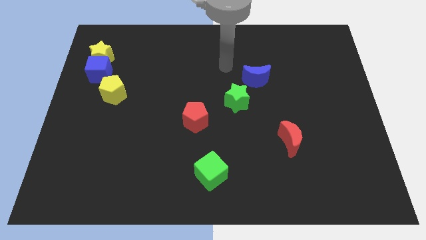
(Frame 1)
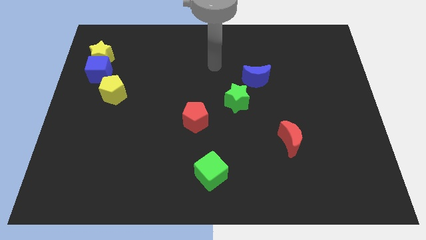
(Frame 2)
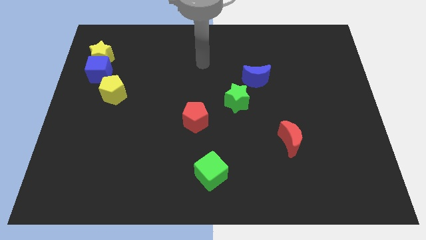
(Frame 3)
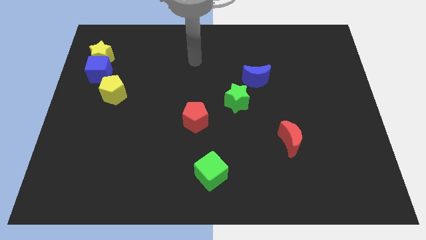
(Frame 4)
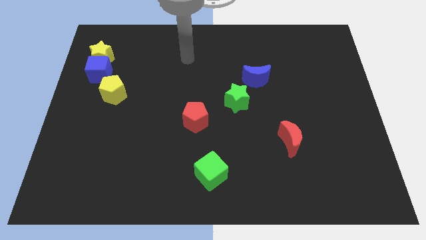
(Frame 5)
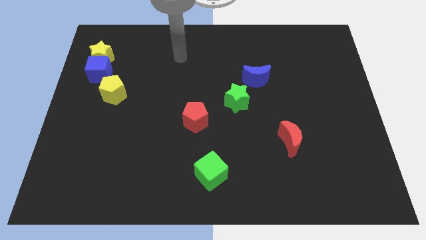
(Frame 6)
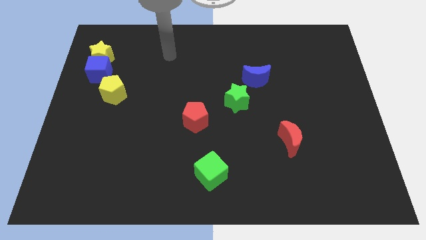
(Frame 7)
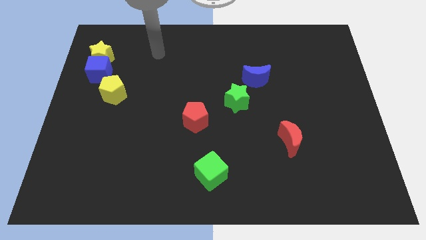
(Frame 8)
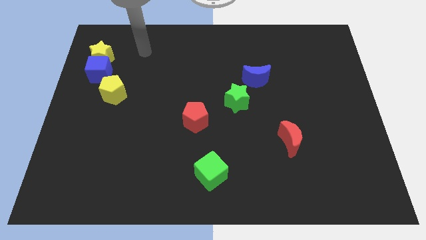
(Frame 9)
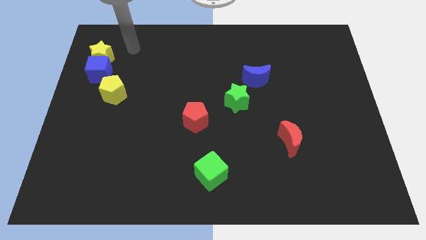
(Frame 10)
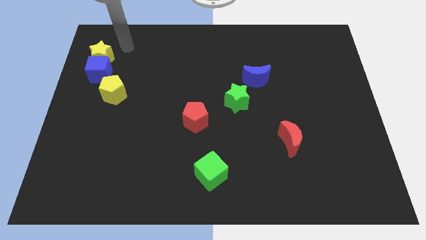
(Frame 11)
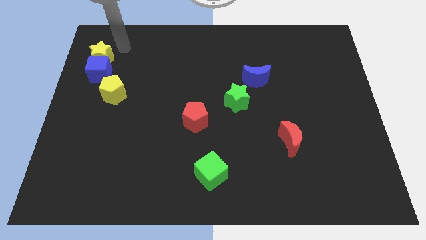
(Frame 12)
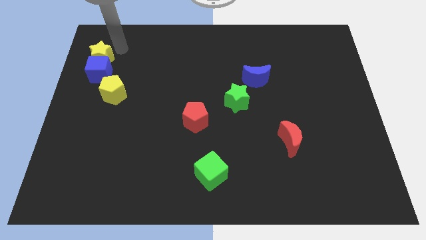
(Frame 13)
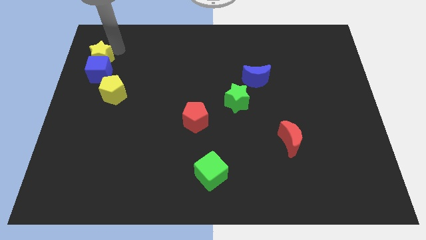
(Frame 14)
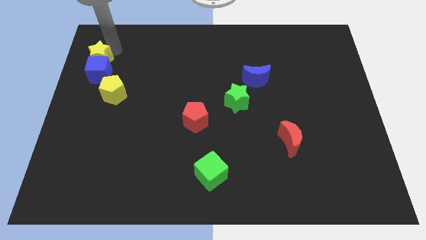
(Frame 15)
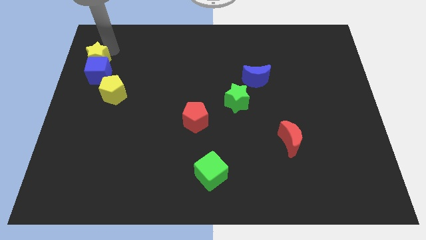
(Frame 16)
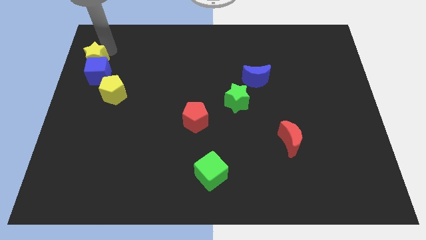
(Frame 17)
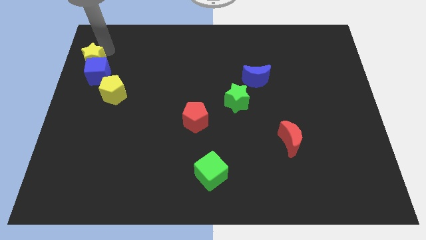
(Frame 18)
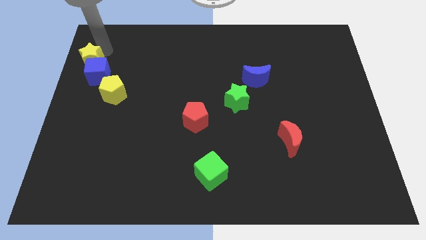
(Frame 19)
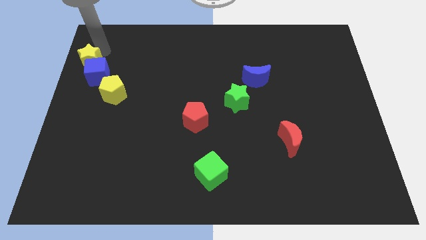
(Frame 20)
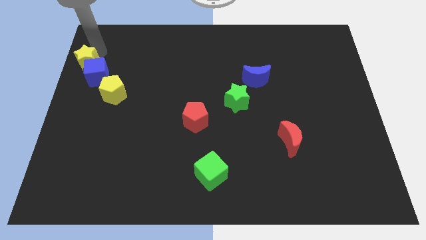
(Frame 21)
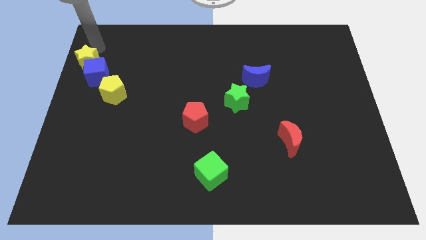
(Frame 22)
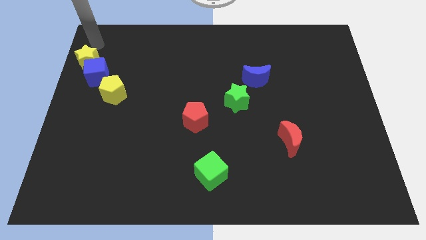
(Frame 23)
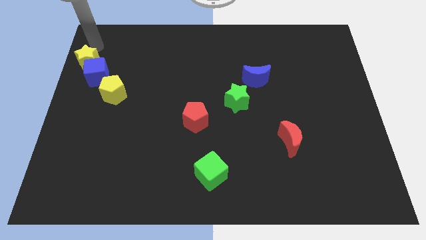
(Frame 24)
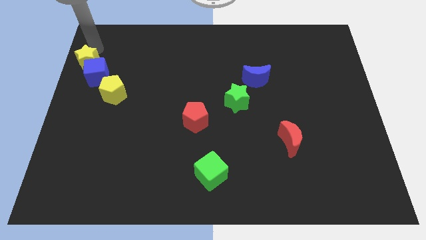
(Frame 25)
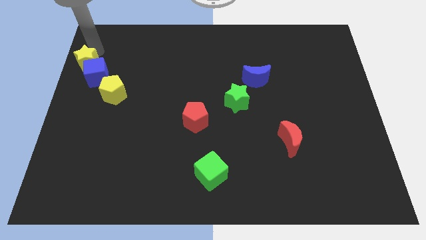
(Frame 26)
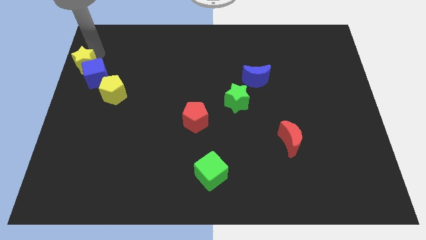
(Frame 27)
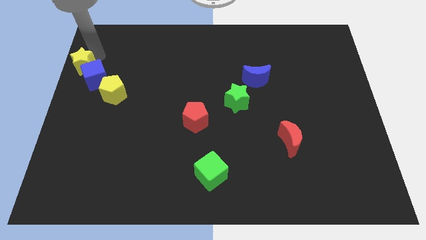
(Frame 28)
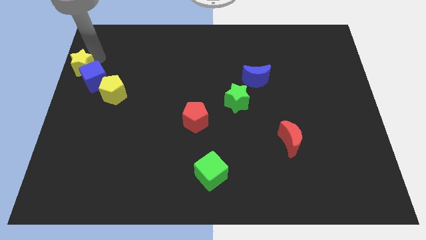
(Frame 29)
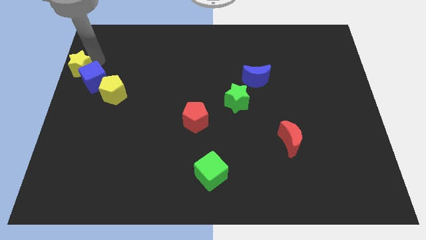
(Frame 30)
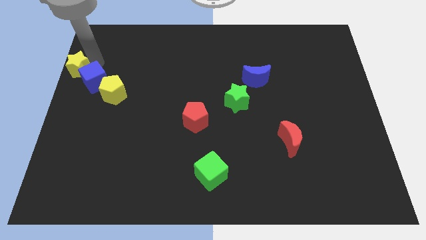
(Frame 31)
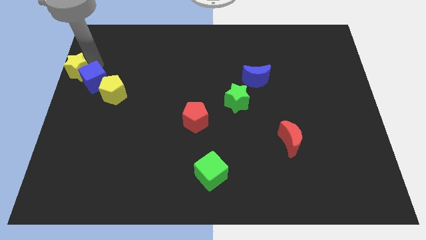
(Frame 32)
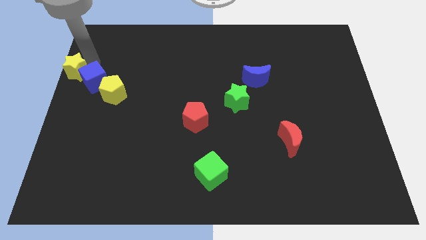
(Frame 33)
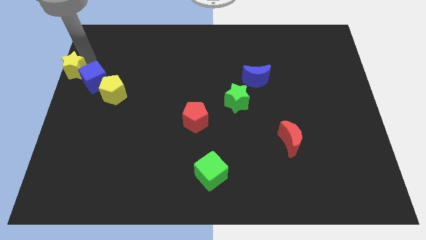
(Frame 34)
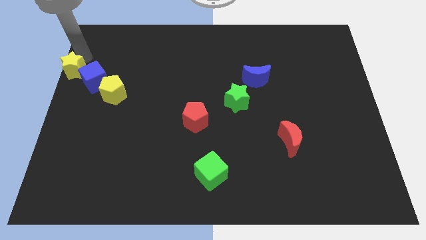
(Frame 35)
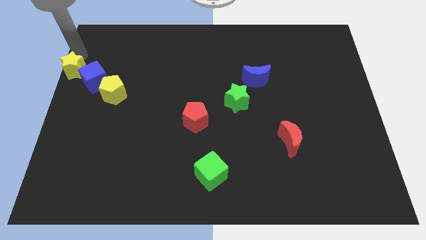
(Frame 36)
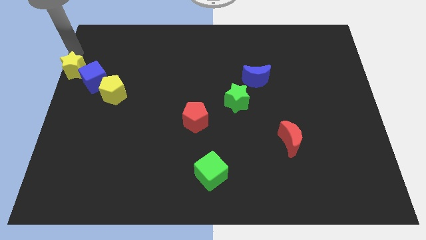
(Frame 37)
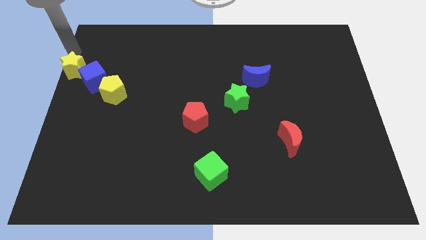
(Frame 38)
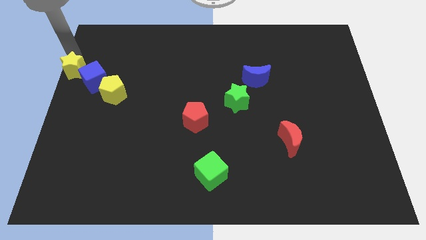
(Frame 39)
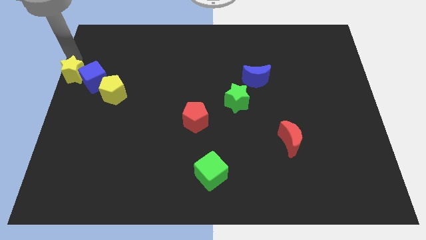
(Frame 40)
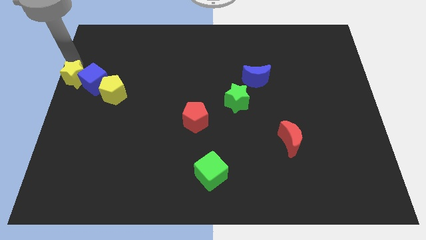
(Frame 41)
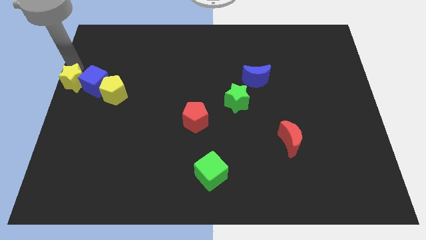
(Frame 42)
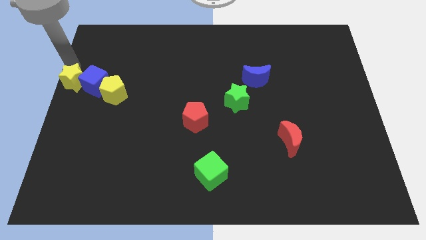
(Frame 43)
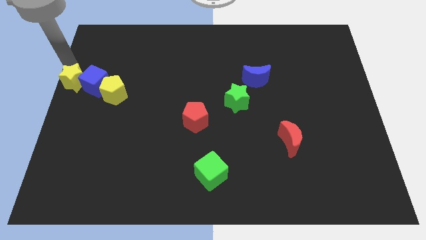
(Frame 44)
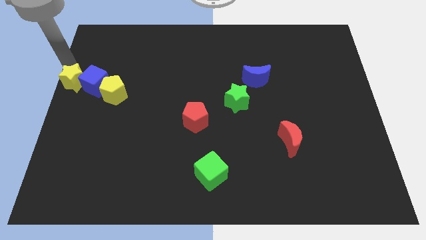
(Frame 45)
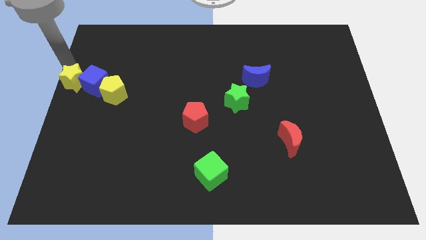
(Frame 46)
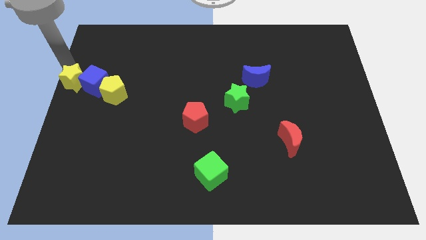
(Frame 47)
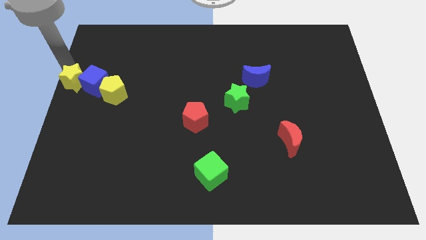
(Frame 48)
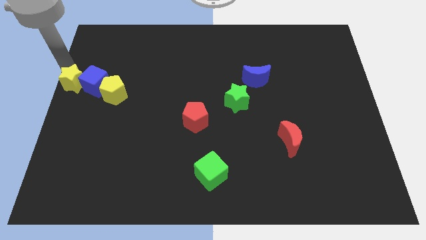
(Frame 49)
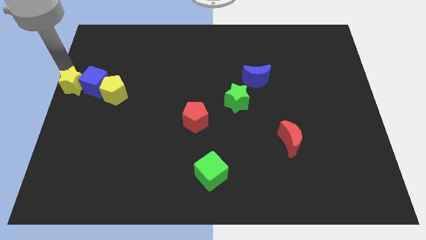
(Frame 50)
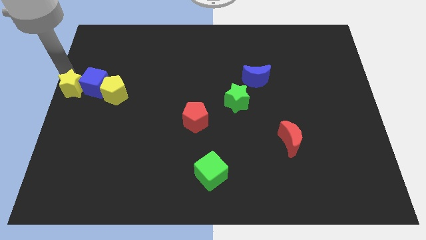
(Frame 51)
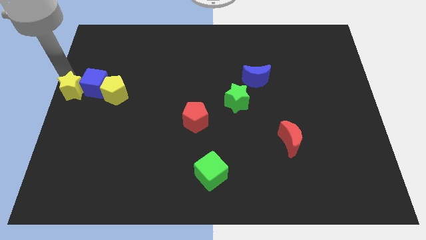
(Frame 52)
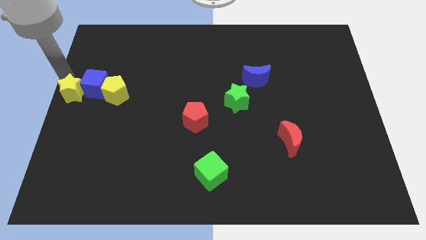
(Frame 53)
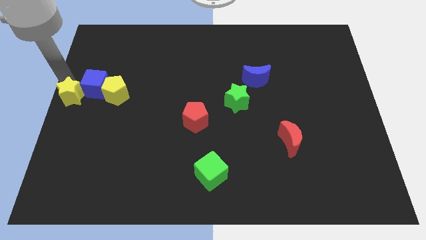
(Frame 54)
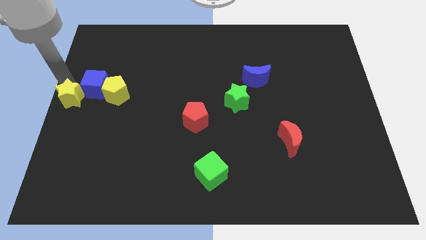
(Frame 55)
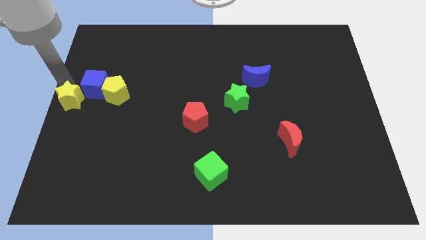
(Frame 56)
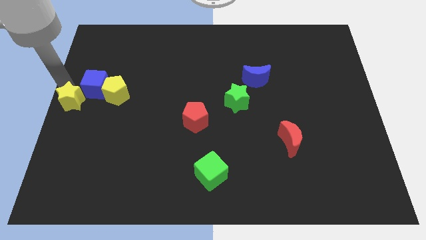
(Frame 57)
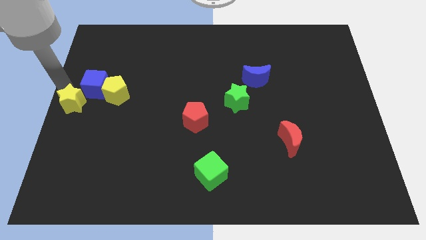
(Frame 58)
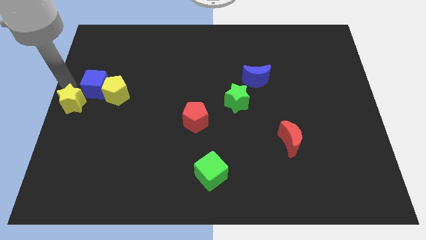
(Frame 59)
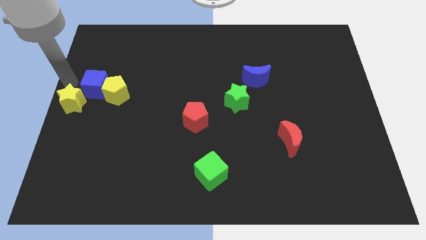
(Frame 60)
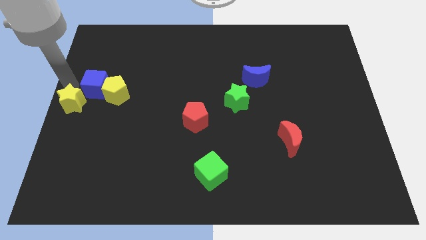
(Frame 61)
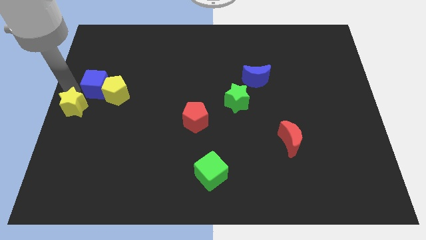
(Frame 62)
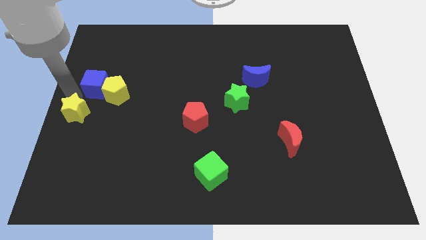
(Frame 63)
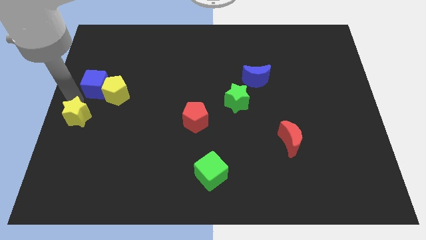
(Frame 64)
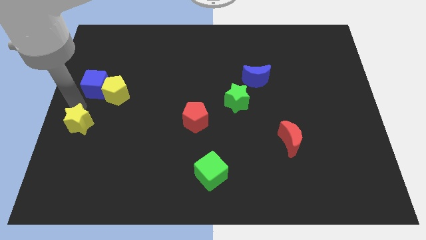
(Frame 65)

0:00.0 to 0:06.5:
push the yellow star downwards

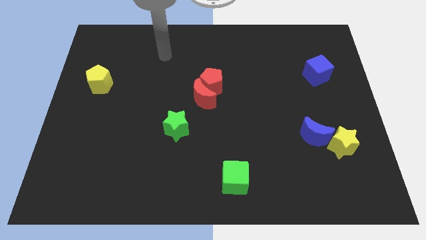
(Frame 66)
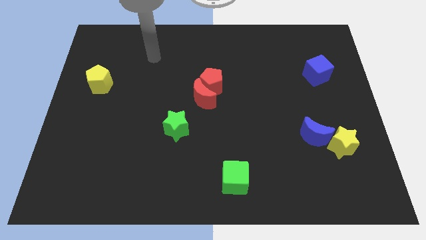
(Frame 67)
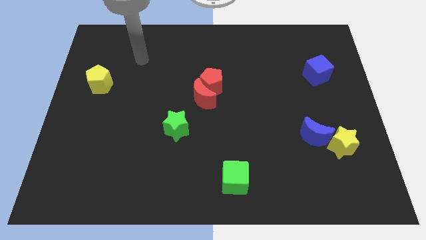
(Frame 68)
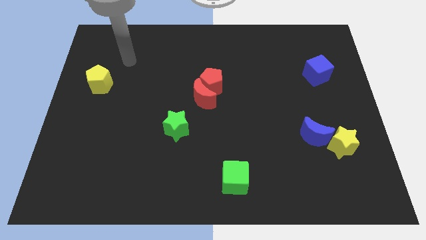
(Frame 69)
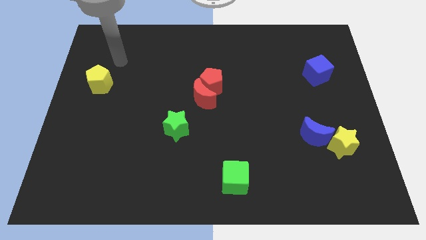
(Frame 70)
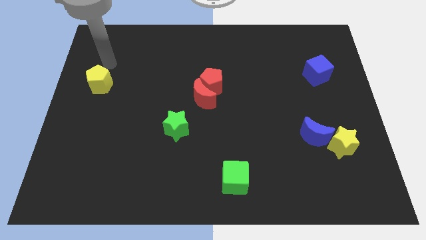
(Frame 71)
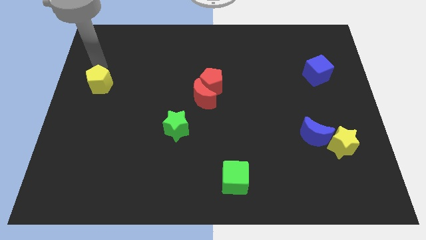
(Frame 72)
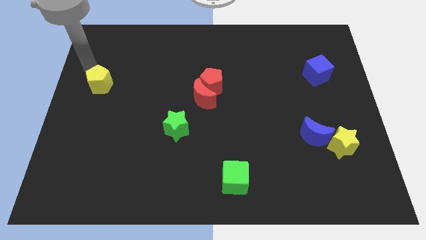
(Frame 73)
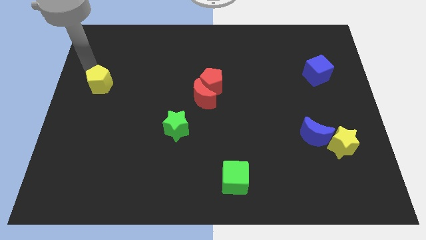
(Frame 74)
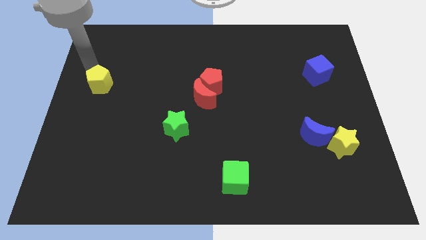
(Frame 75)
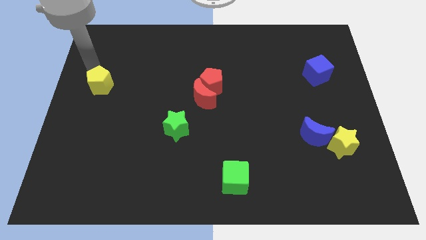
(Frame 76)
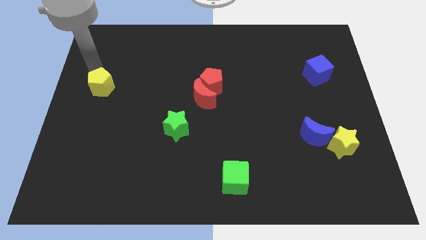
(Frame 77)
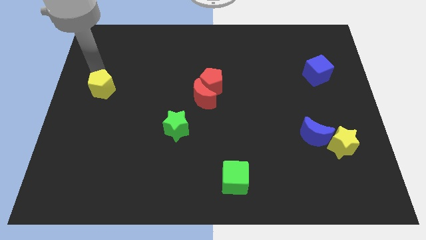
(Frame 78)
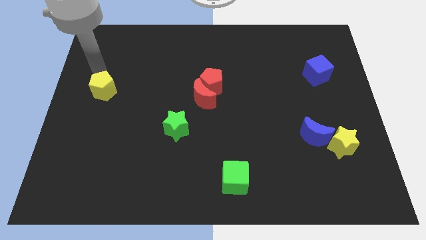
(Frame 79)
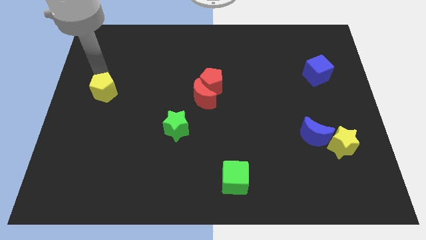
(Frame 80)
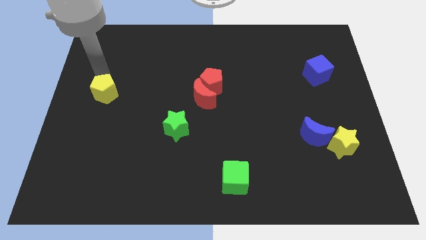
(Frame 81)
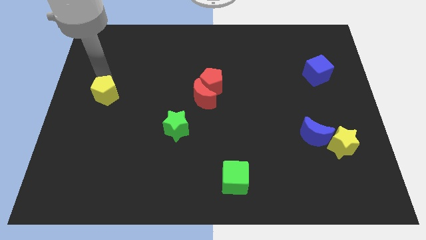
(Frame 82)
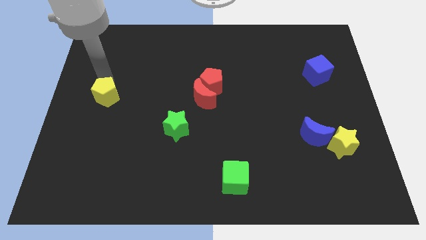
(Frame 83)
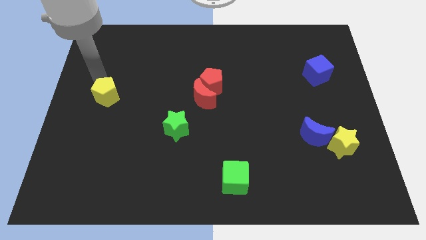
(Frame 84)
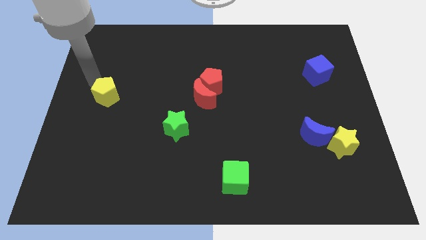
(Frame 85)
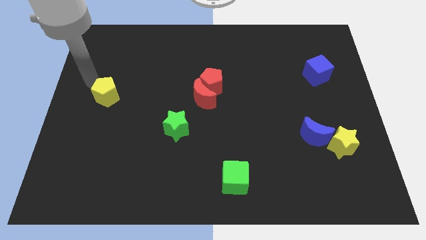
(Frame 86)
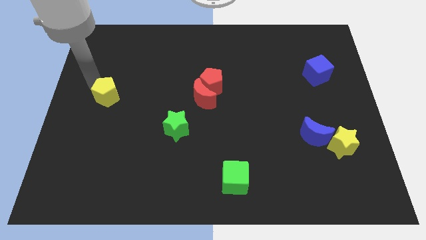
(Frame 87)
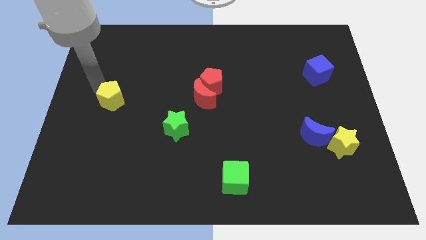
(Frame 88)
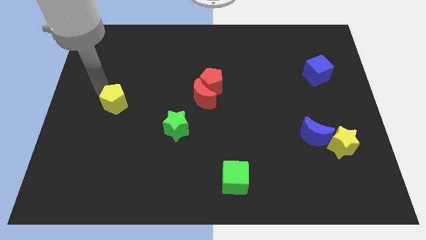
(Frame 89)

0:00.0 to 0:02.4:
slightly move the yellow pentagon down and to the right
